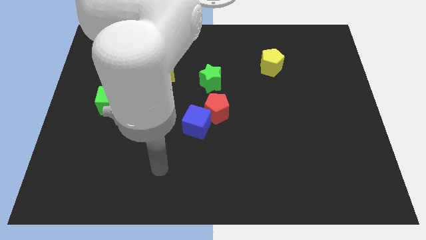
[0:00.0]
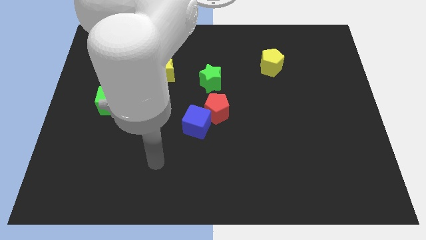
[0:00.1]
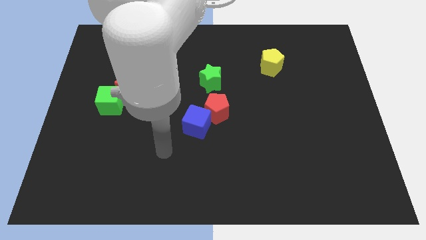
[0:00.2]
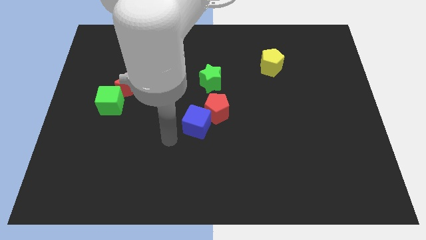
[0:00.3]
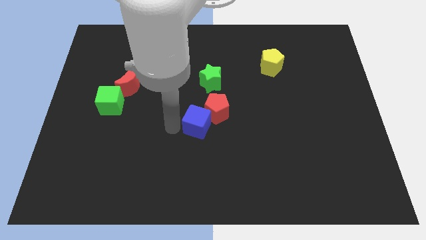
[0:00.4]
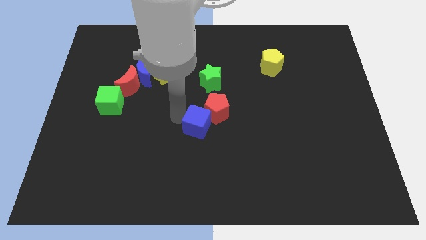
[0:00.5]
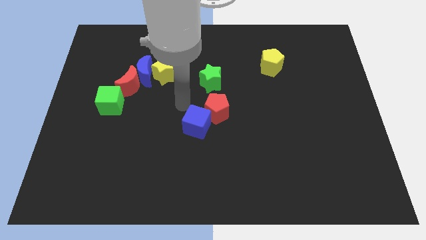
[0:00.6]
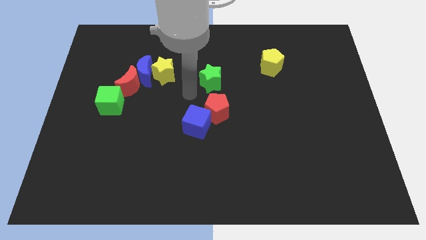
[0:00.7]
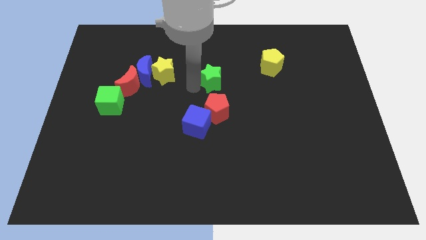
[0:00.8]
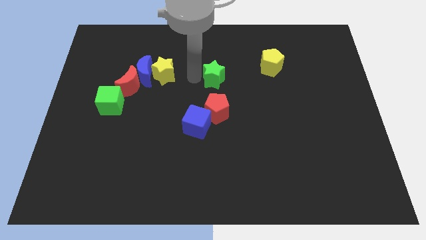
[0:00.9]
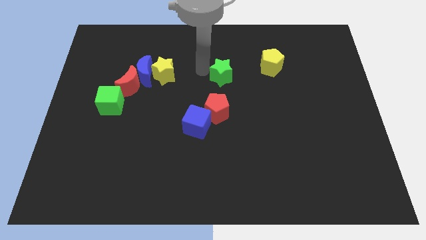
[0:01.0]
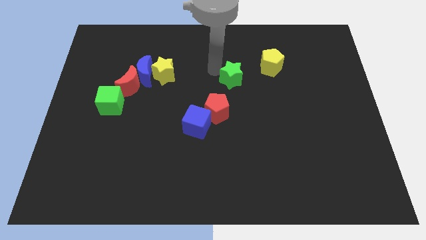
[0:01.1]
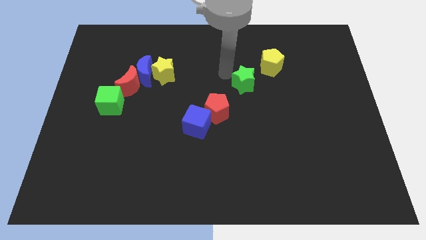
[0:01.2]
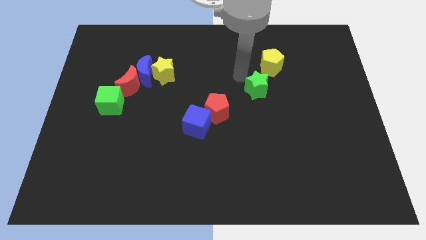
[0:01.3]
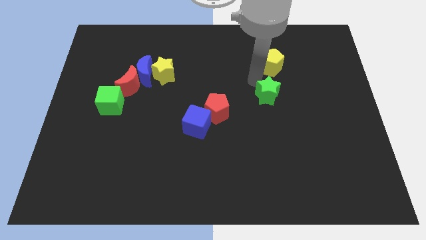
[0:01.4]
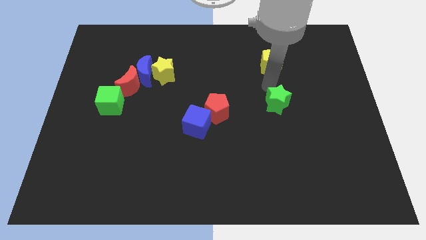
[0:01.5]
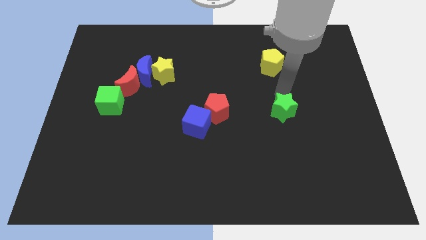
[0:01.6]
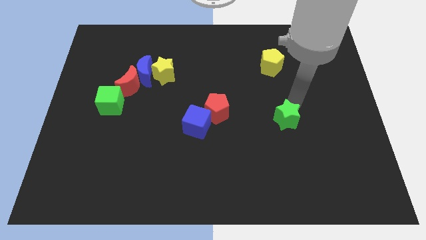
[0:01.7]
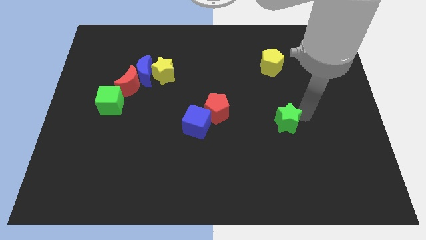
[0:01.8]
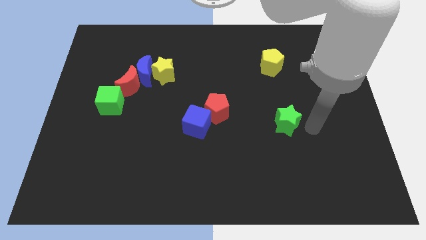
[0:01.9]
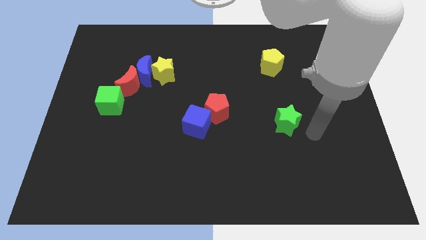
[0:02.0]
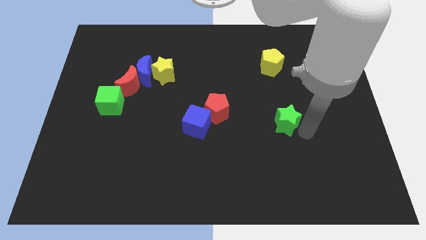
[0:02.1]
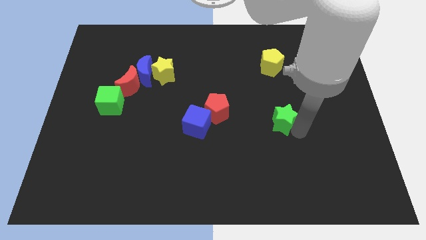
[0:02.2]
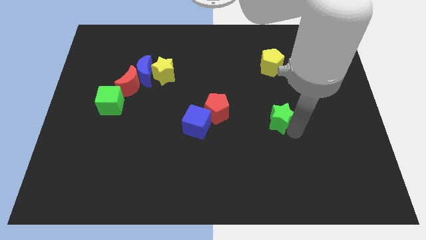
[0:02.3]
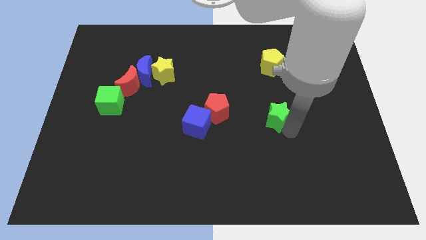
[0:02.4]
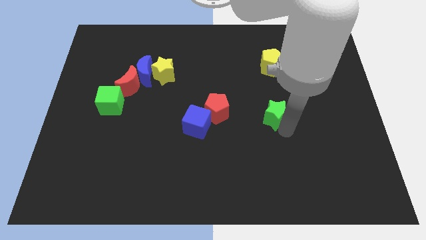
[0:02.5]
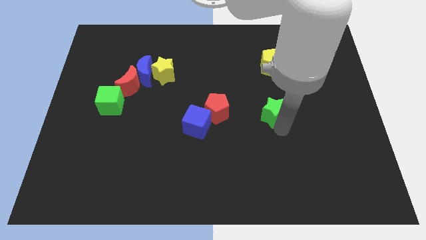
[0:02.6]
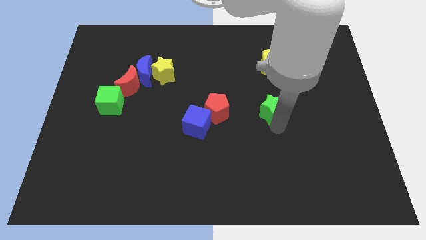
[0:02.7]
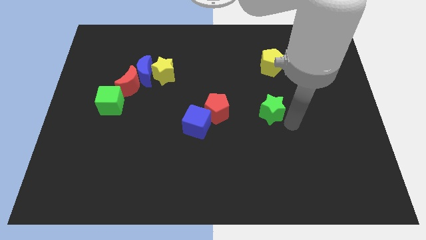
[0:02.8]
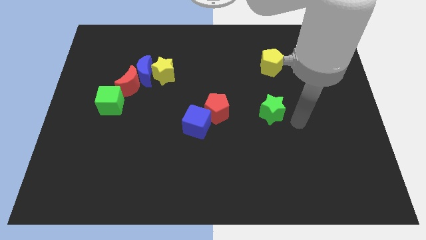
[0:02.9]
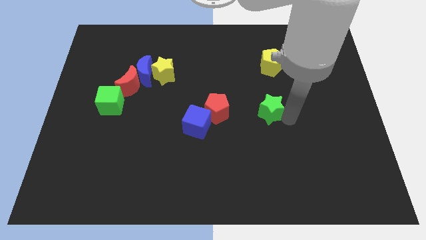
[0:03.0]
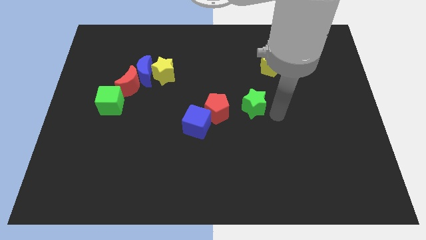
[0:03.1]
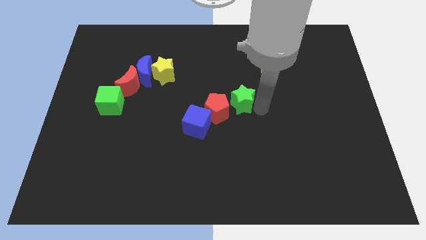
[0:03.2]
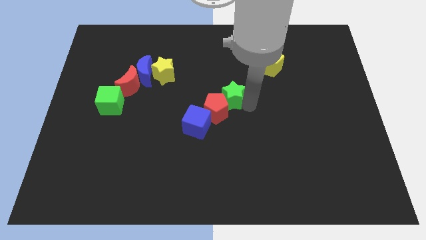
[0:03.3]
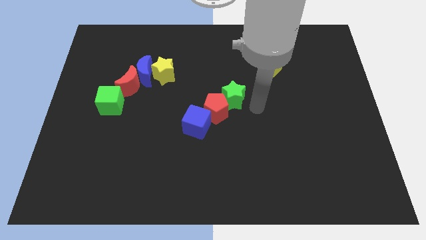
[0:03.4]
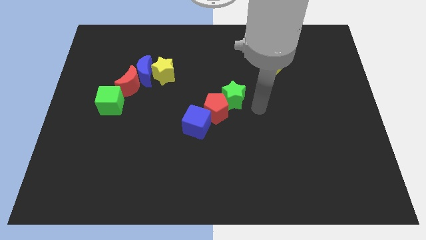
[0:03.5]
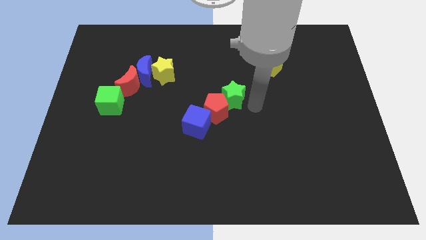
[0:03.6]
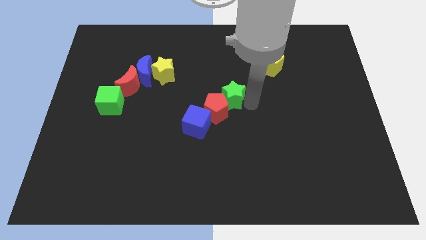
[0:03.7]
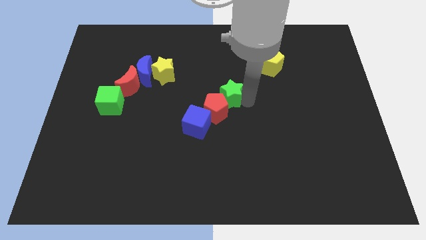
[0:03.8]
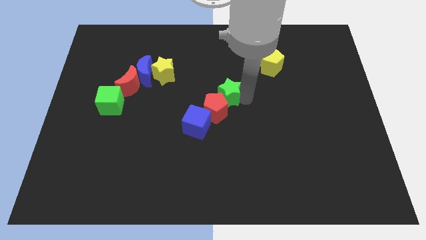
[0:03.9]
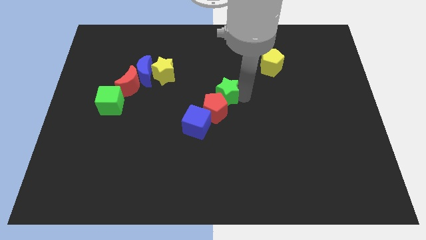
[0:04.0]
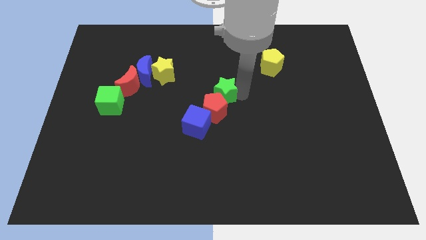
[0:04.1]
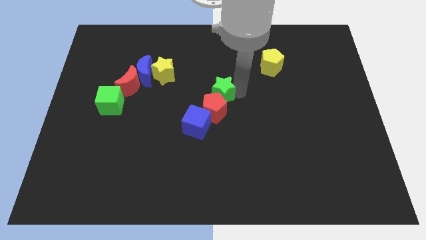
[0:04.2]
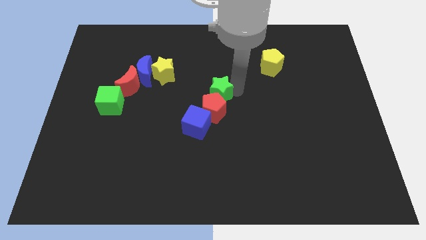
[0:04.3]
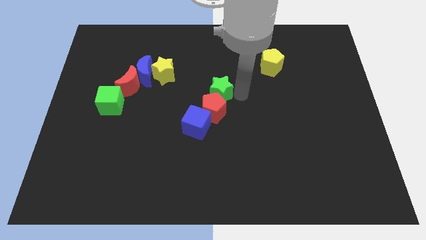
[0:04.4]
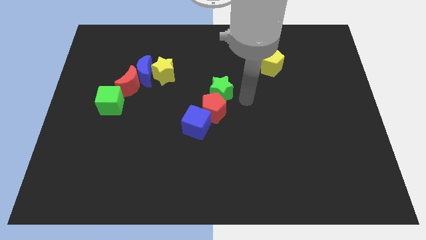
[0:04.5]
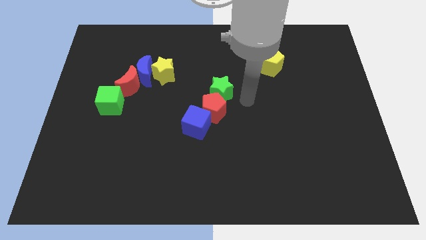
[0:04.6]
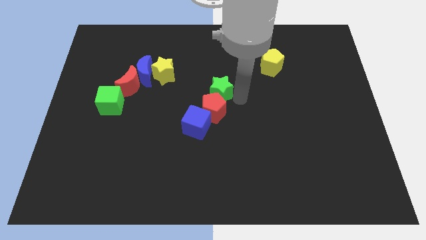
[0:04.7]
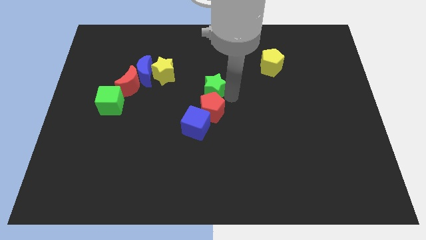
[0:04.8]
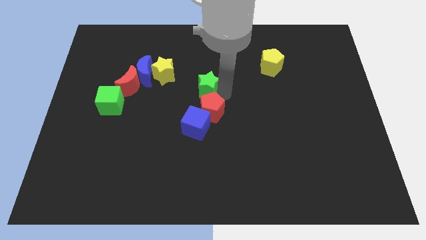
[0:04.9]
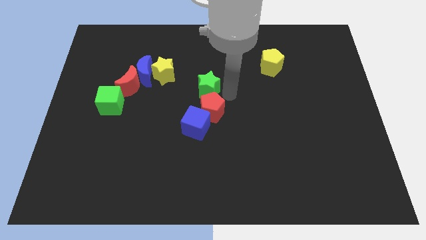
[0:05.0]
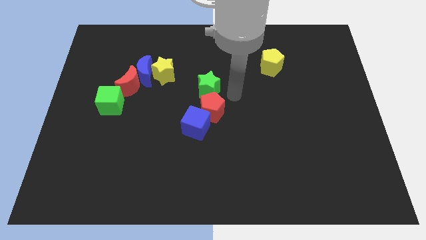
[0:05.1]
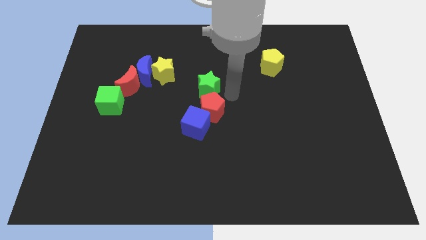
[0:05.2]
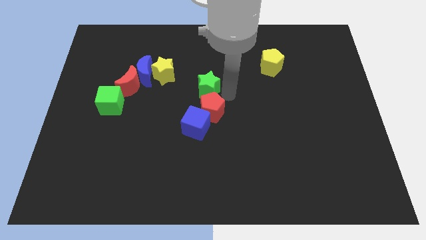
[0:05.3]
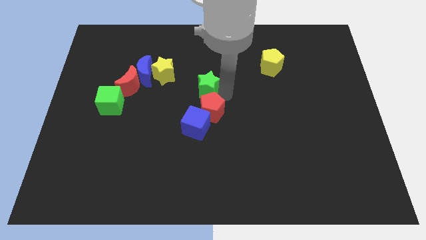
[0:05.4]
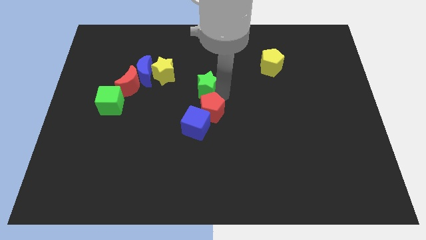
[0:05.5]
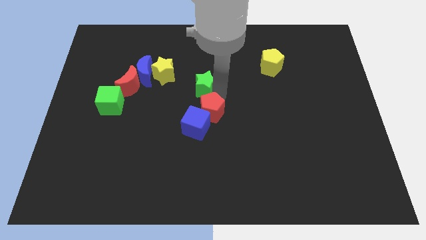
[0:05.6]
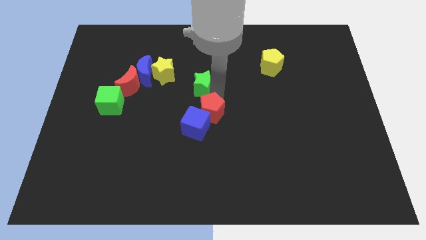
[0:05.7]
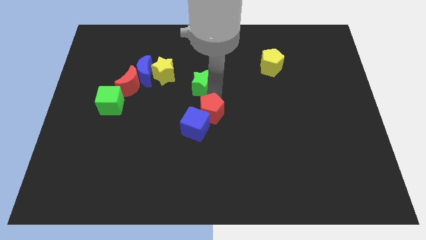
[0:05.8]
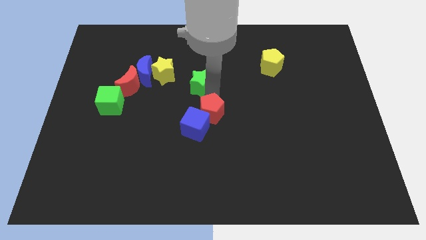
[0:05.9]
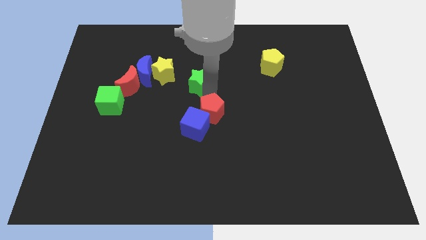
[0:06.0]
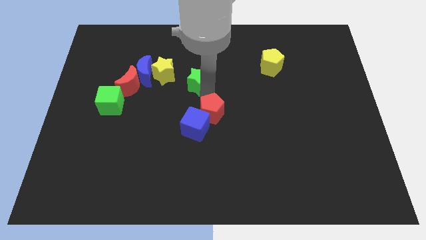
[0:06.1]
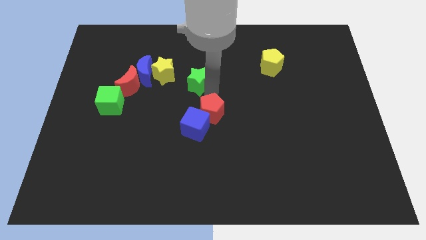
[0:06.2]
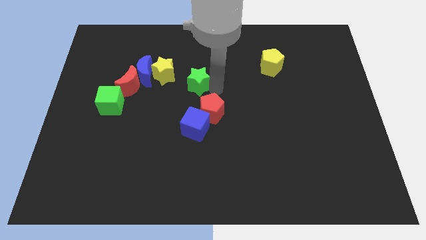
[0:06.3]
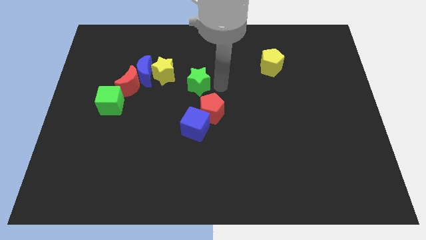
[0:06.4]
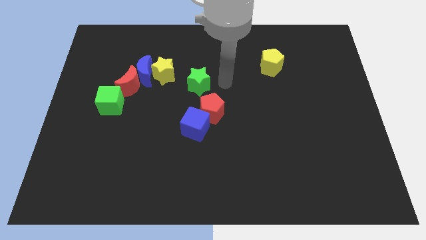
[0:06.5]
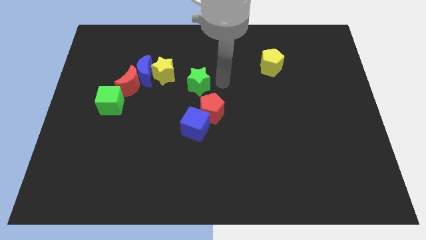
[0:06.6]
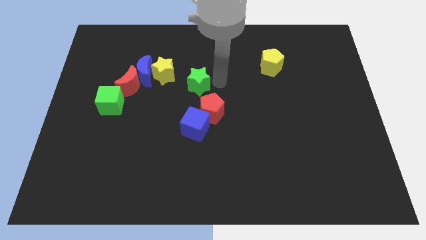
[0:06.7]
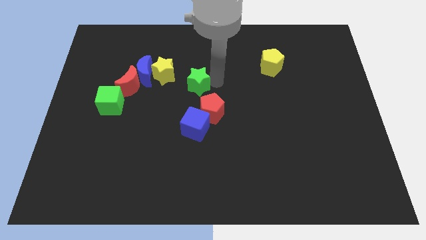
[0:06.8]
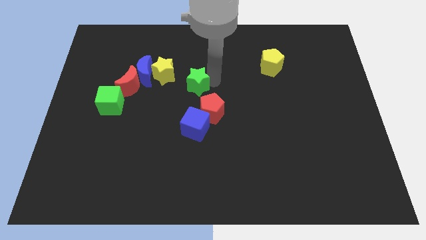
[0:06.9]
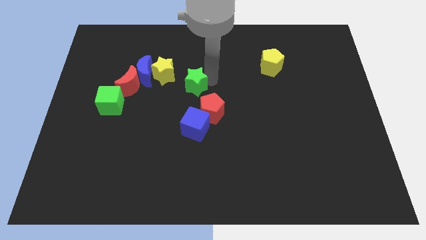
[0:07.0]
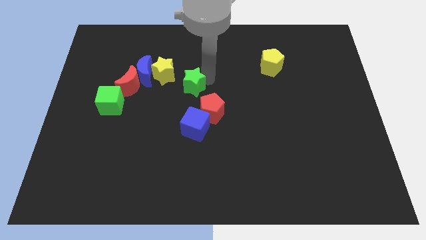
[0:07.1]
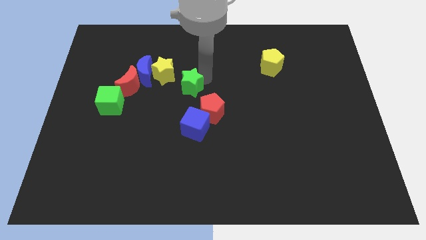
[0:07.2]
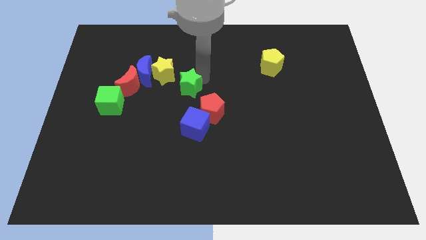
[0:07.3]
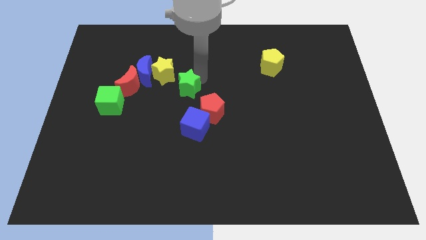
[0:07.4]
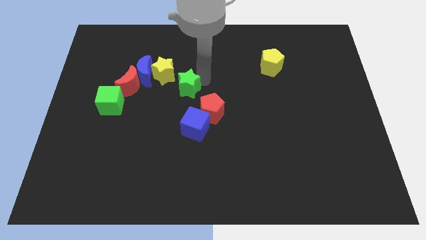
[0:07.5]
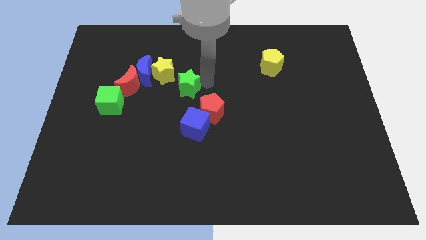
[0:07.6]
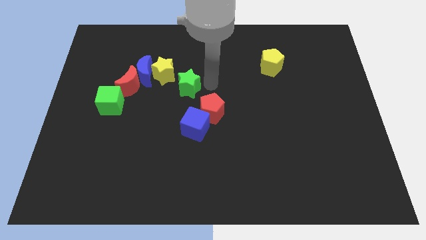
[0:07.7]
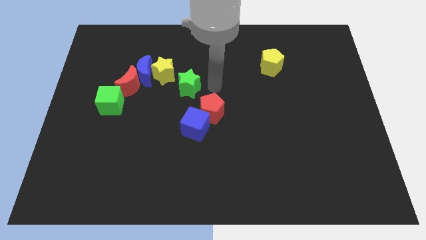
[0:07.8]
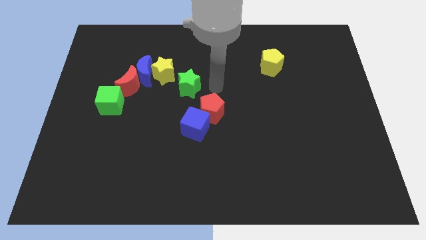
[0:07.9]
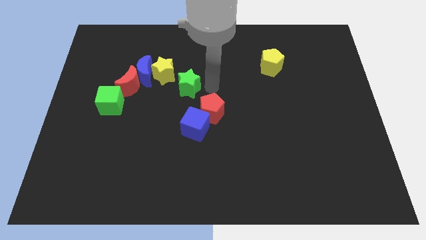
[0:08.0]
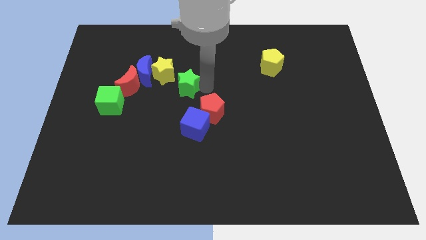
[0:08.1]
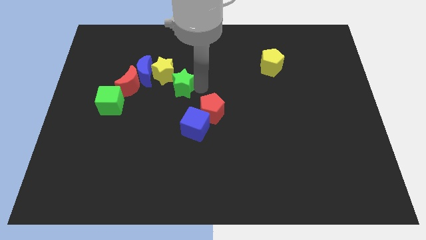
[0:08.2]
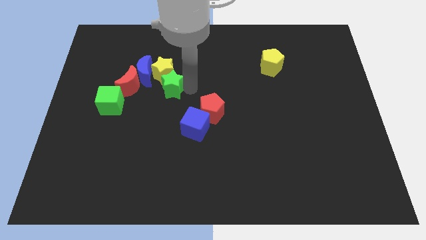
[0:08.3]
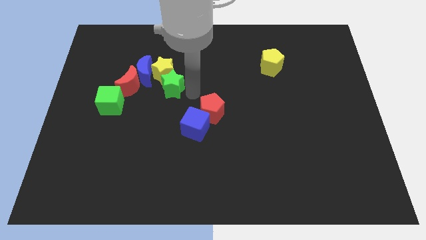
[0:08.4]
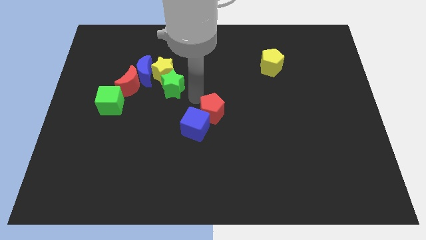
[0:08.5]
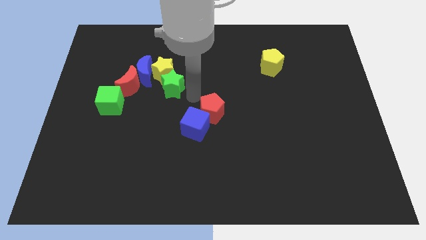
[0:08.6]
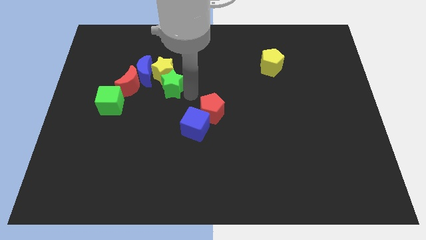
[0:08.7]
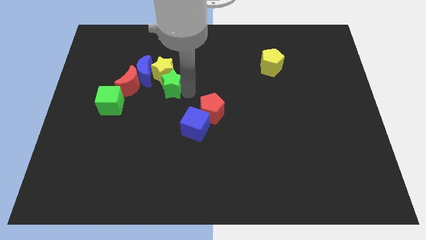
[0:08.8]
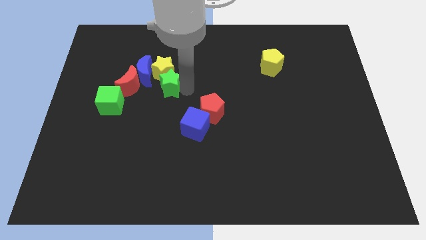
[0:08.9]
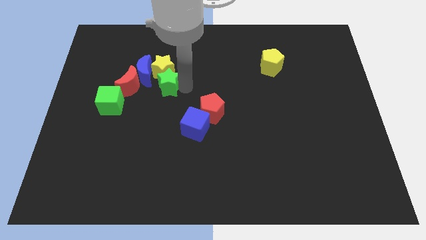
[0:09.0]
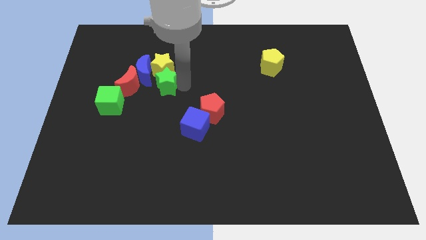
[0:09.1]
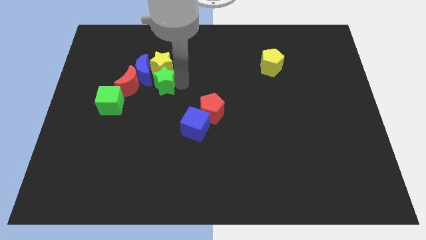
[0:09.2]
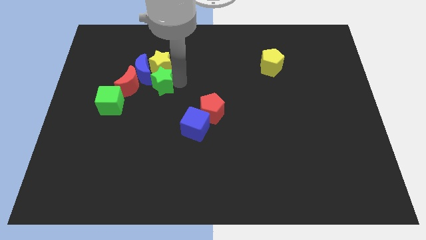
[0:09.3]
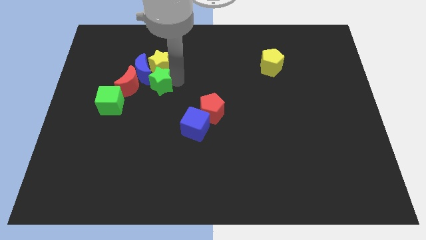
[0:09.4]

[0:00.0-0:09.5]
slide the green star towards the blue moon
